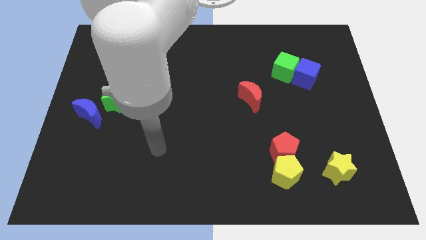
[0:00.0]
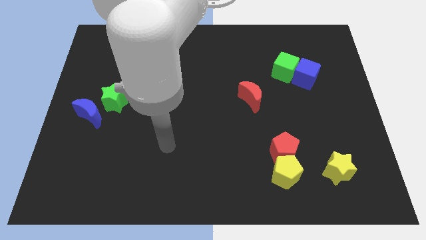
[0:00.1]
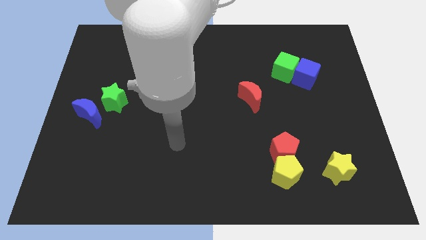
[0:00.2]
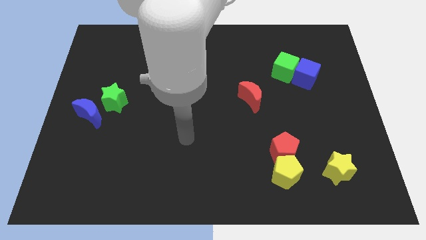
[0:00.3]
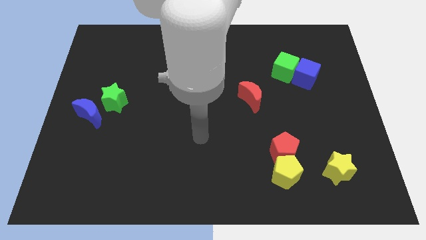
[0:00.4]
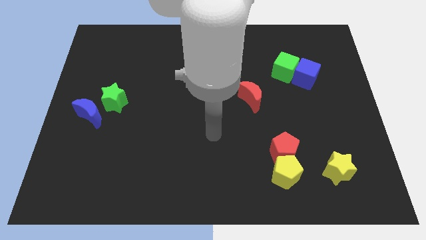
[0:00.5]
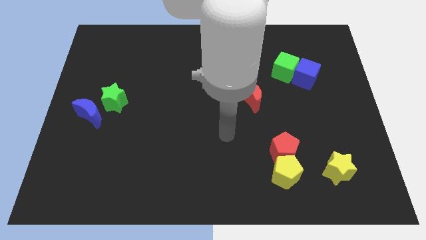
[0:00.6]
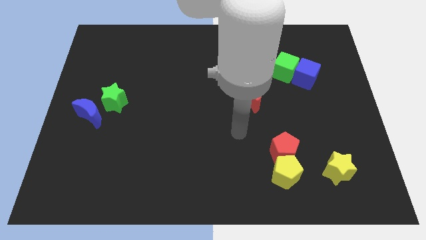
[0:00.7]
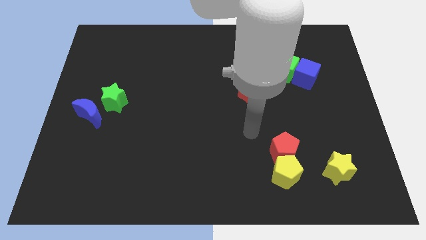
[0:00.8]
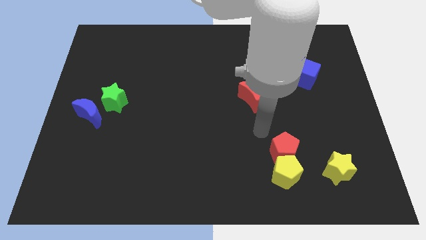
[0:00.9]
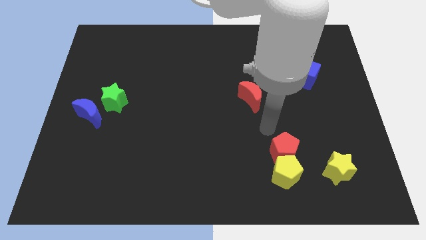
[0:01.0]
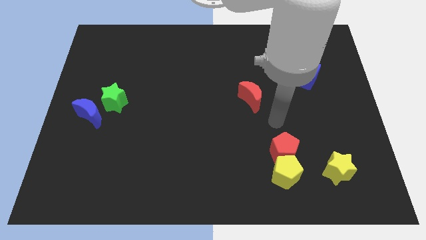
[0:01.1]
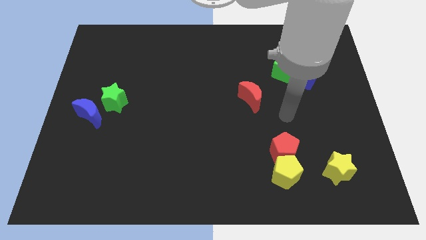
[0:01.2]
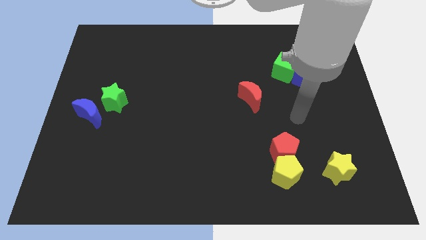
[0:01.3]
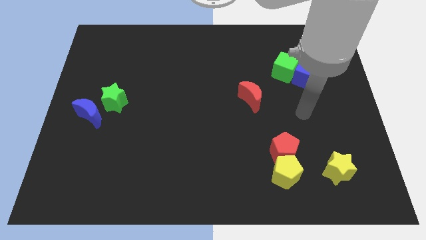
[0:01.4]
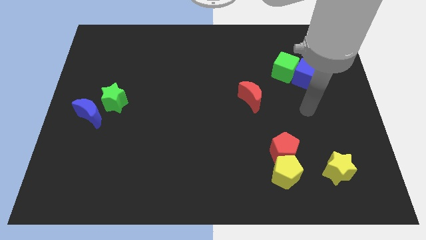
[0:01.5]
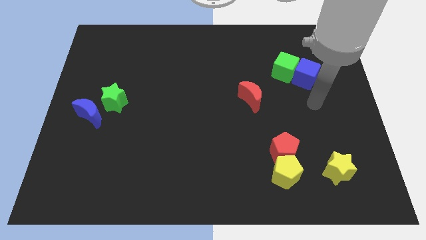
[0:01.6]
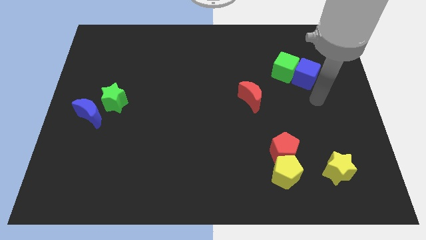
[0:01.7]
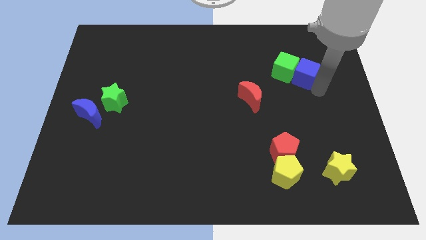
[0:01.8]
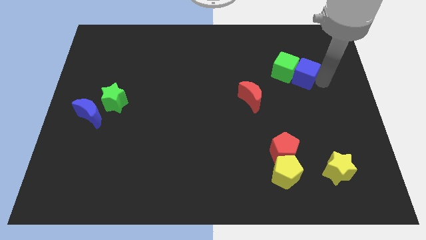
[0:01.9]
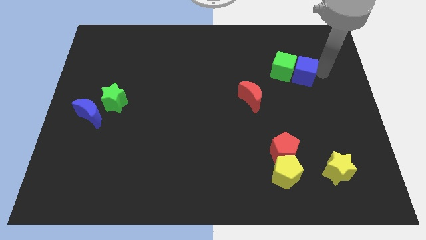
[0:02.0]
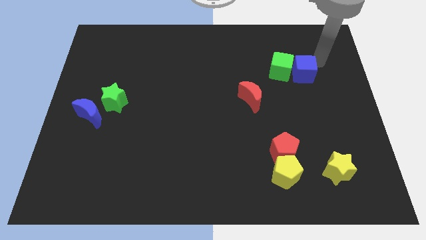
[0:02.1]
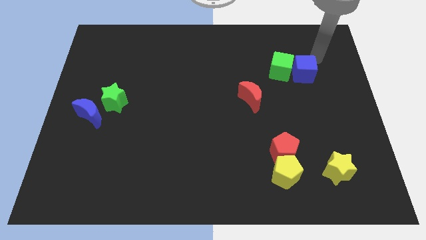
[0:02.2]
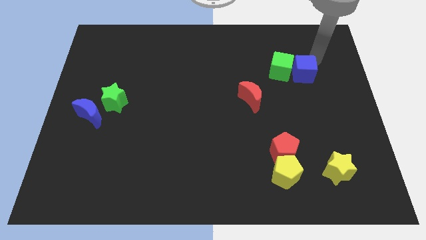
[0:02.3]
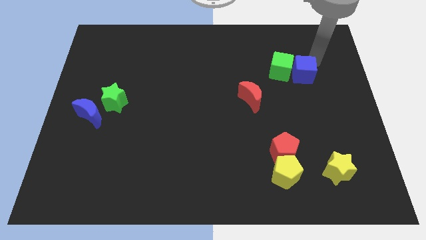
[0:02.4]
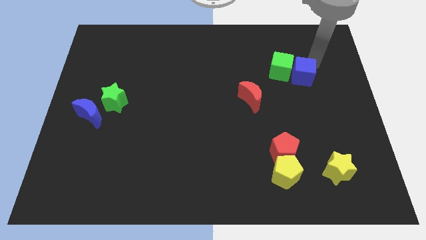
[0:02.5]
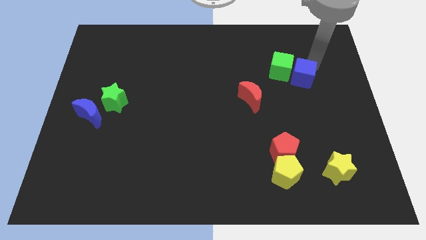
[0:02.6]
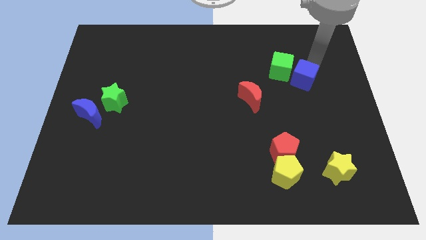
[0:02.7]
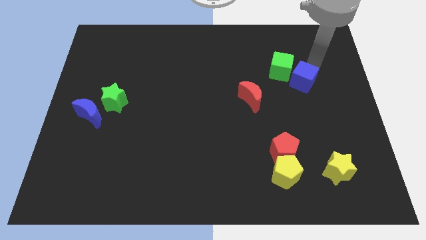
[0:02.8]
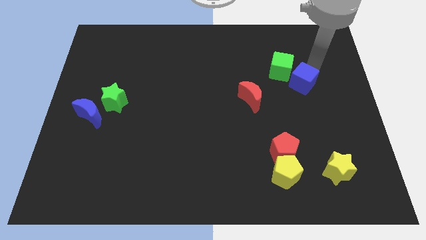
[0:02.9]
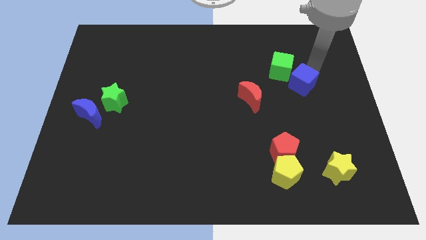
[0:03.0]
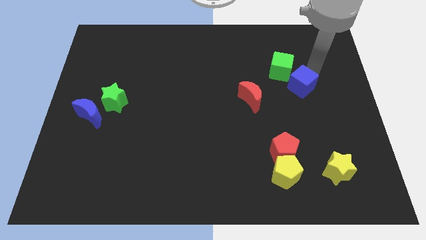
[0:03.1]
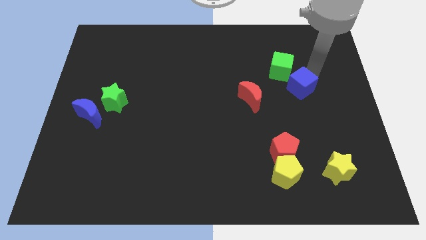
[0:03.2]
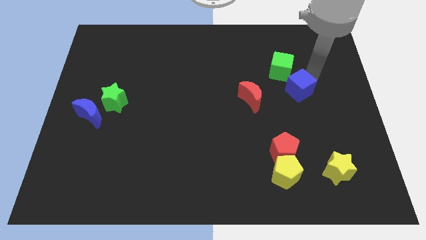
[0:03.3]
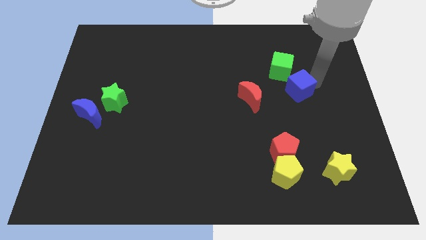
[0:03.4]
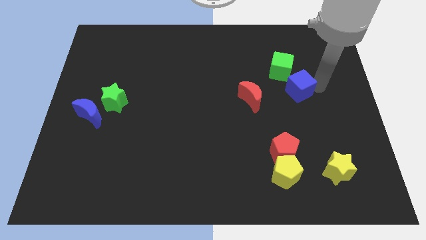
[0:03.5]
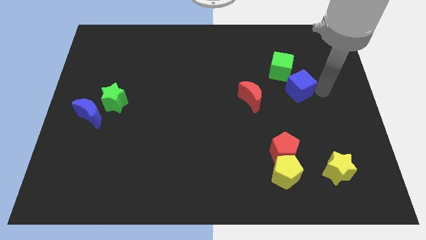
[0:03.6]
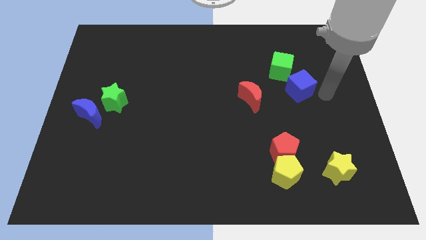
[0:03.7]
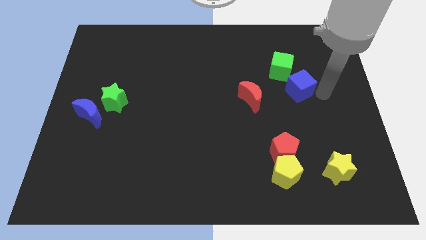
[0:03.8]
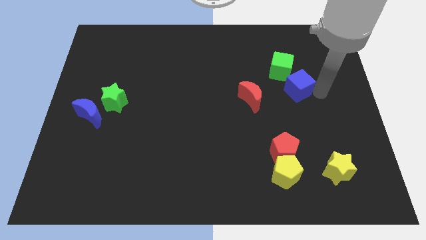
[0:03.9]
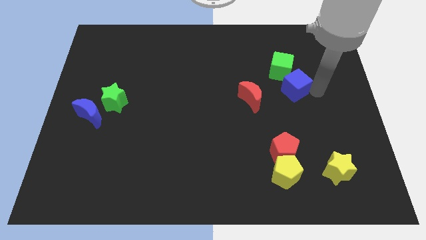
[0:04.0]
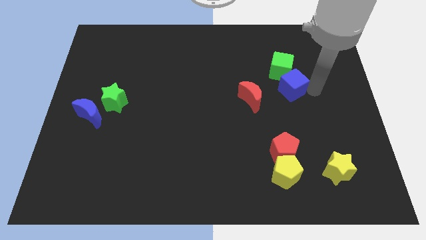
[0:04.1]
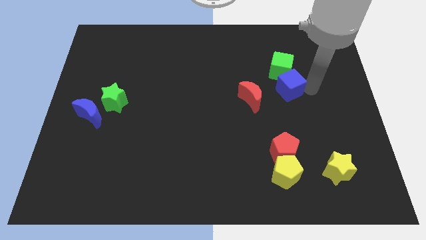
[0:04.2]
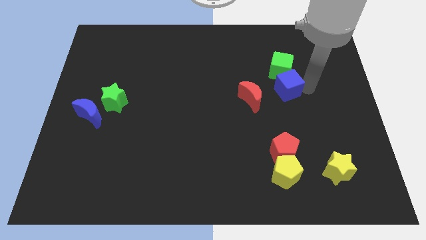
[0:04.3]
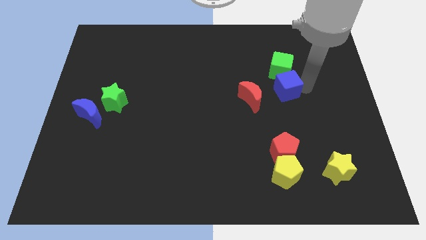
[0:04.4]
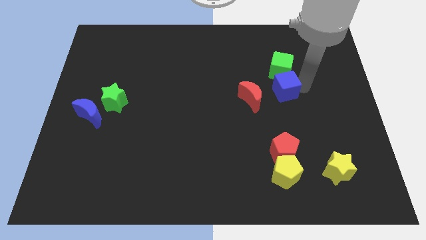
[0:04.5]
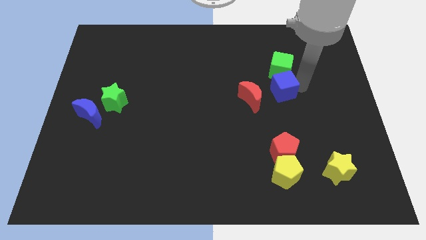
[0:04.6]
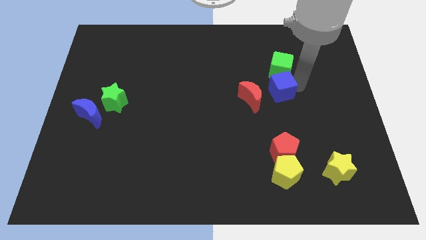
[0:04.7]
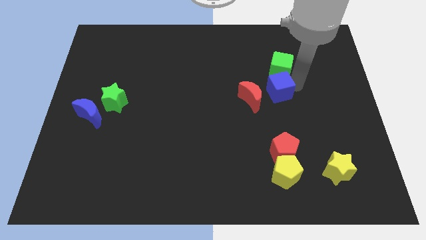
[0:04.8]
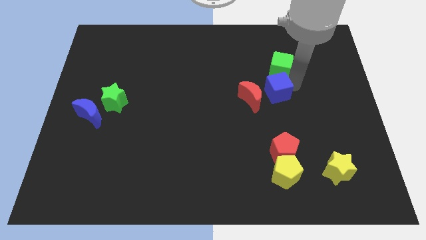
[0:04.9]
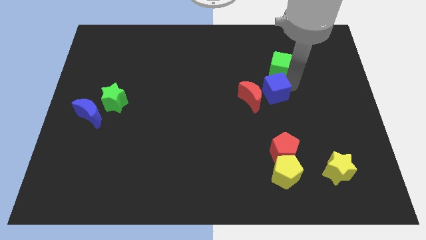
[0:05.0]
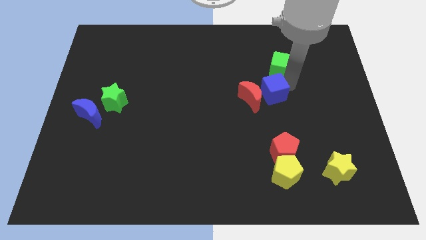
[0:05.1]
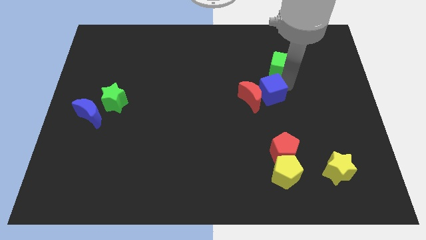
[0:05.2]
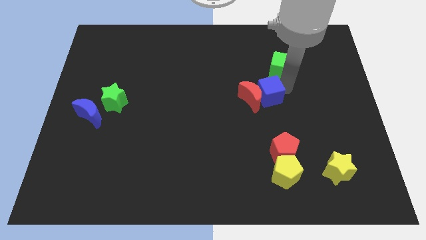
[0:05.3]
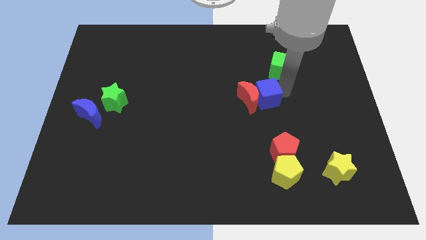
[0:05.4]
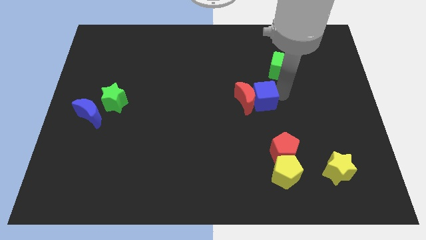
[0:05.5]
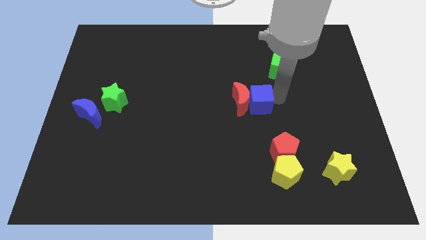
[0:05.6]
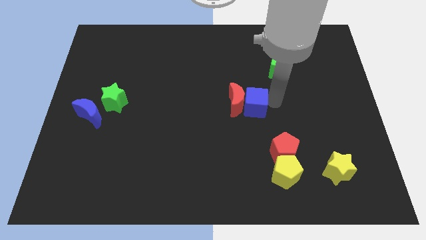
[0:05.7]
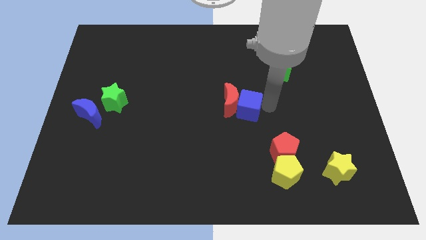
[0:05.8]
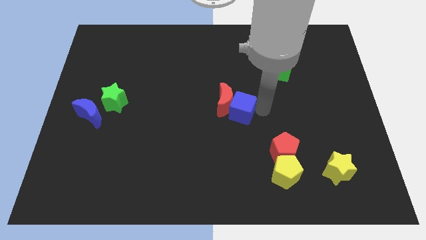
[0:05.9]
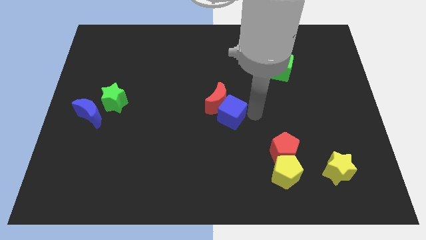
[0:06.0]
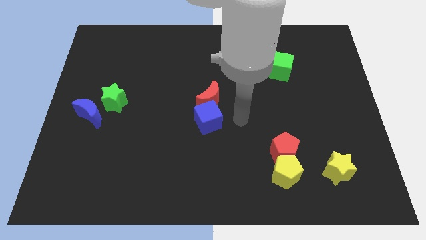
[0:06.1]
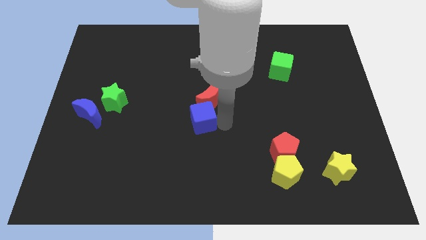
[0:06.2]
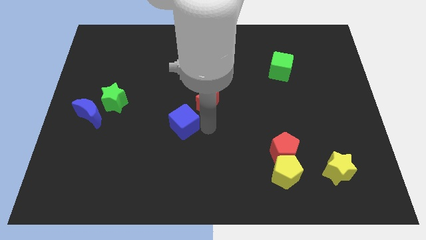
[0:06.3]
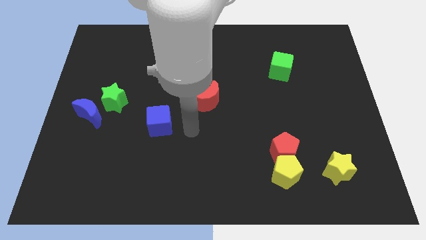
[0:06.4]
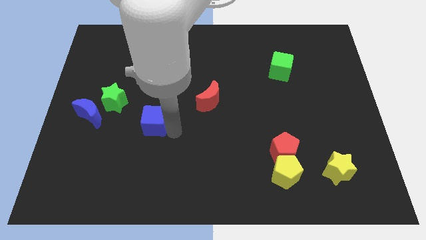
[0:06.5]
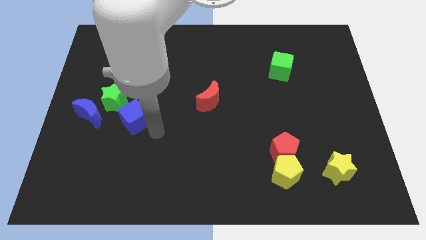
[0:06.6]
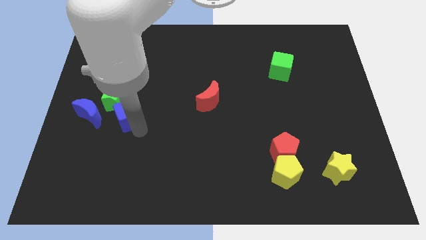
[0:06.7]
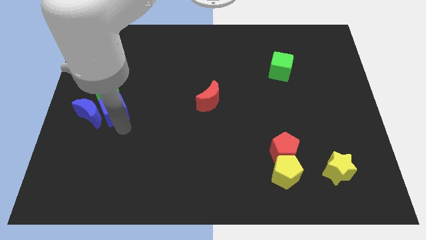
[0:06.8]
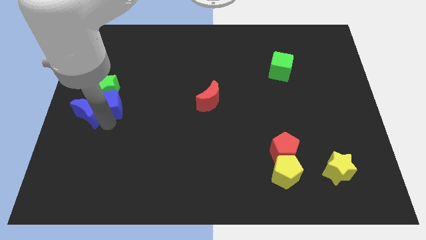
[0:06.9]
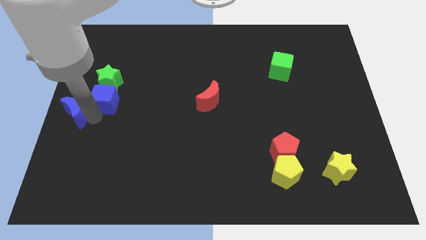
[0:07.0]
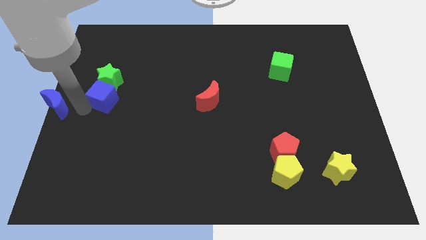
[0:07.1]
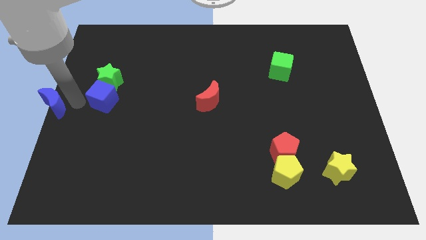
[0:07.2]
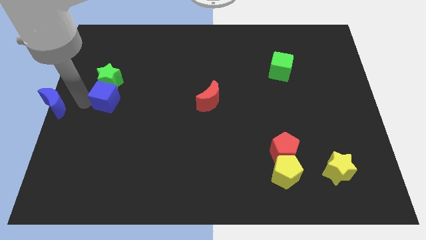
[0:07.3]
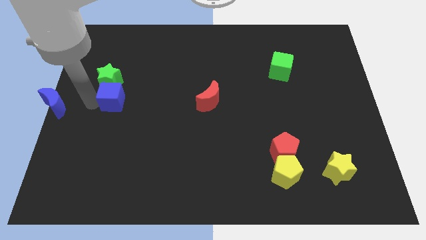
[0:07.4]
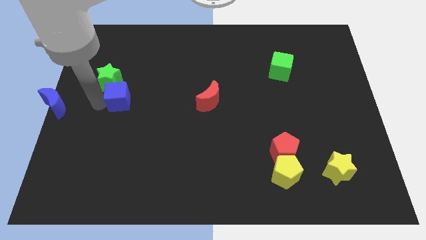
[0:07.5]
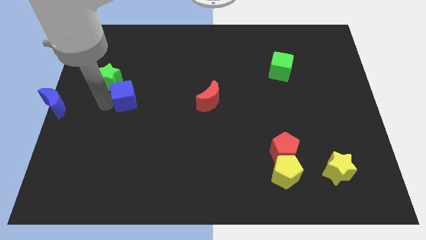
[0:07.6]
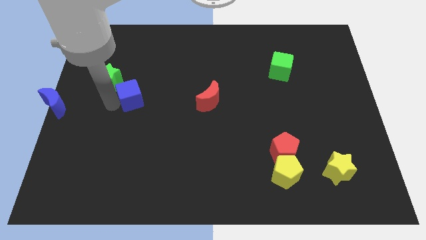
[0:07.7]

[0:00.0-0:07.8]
slide the blue cube to the left

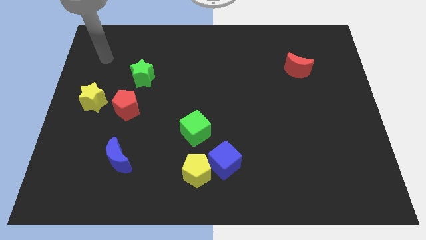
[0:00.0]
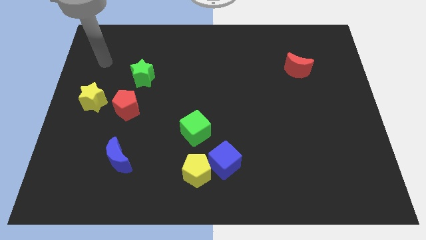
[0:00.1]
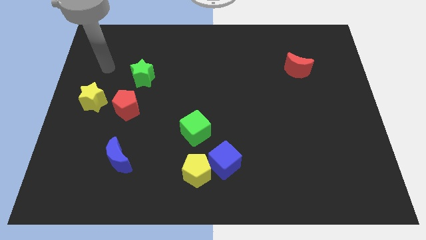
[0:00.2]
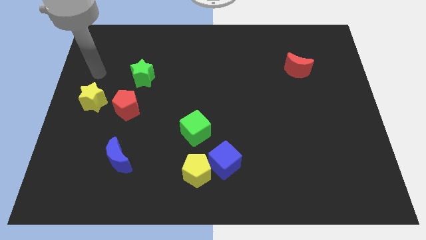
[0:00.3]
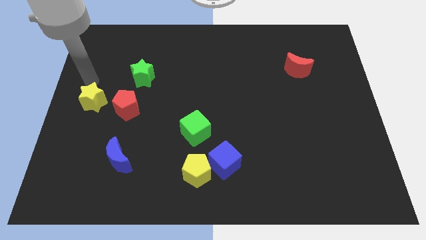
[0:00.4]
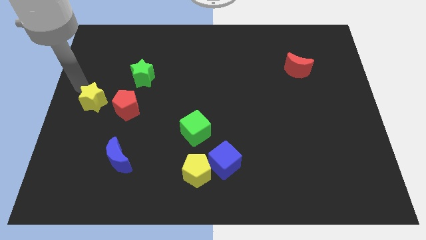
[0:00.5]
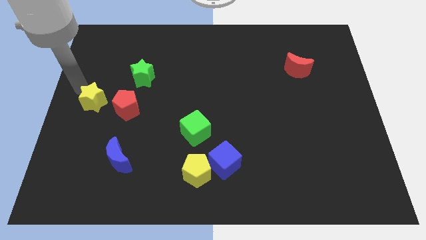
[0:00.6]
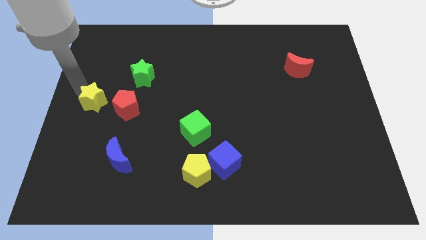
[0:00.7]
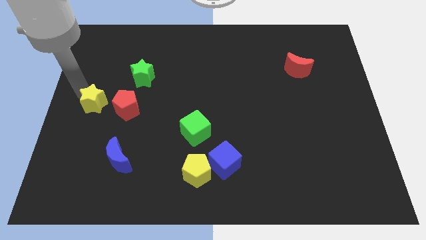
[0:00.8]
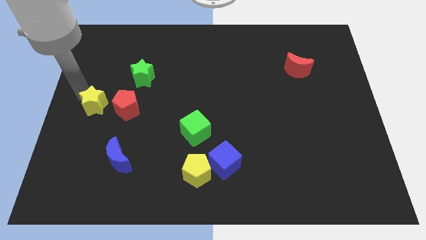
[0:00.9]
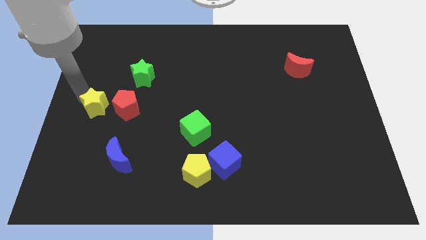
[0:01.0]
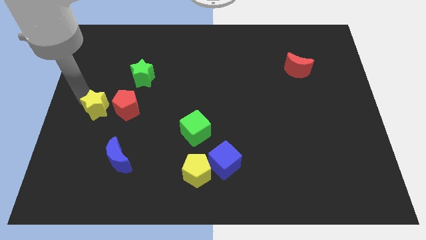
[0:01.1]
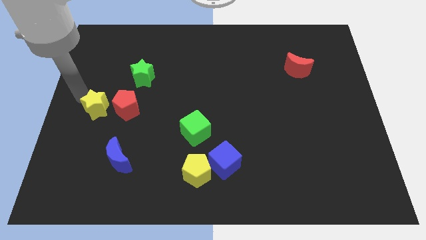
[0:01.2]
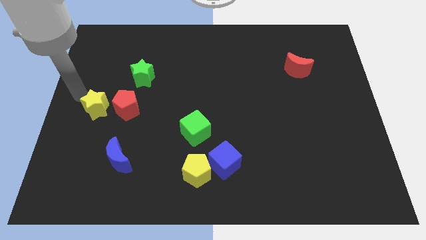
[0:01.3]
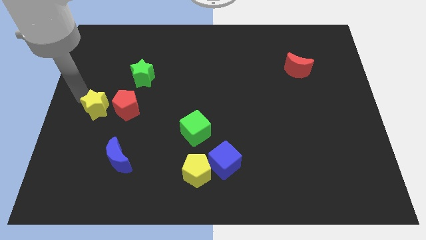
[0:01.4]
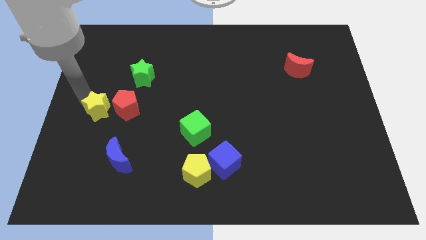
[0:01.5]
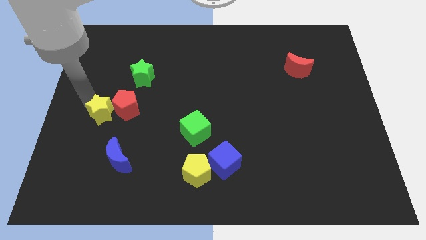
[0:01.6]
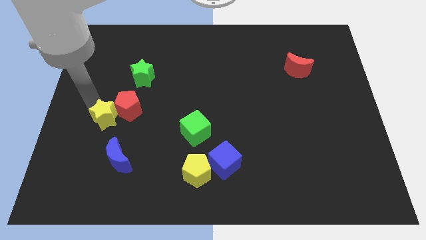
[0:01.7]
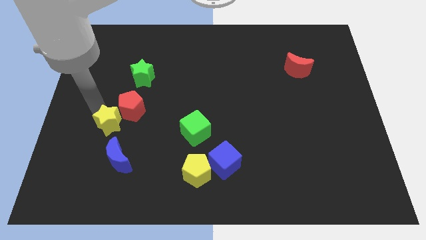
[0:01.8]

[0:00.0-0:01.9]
slightly push the yellow star down and then to the right
